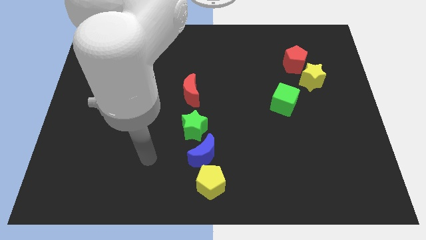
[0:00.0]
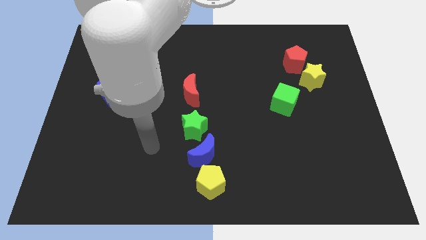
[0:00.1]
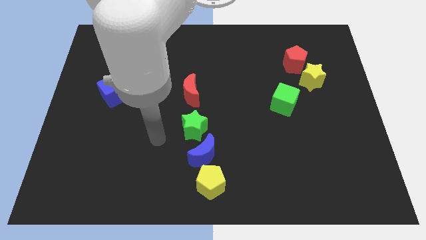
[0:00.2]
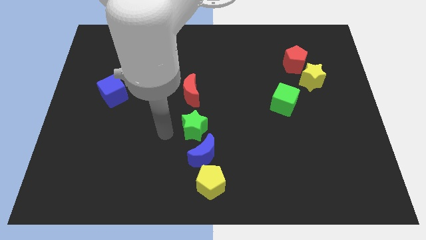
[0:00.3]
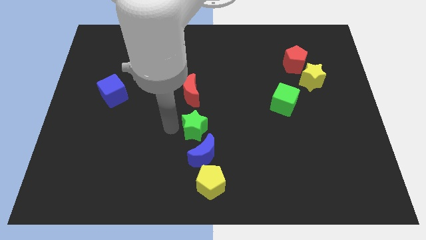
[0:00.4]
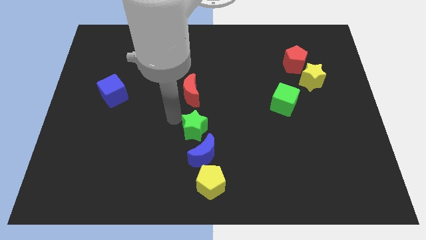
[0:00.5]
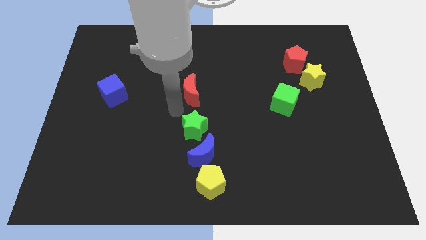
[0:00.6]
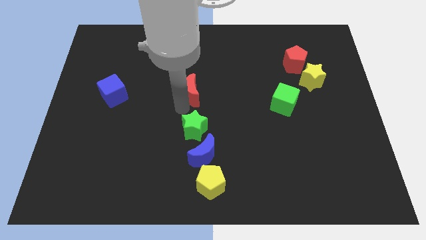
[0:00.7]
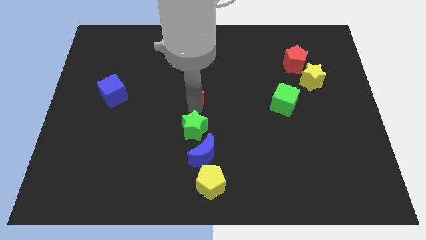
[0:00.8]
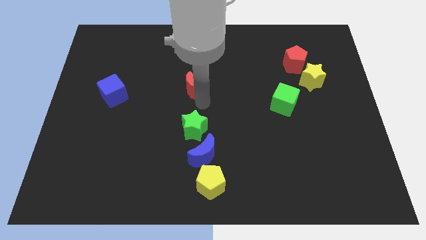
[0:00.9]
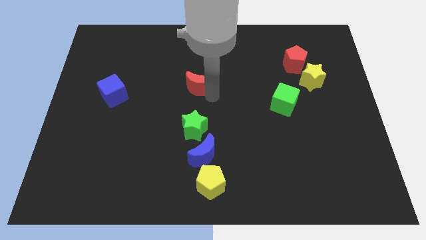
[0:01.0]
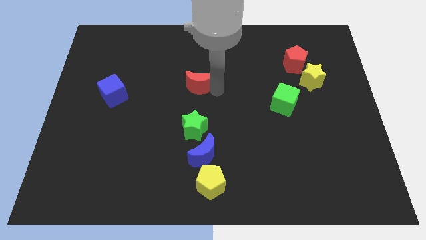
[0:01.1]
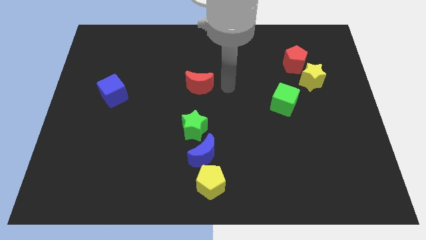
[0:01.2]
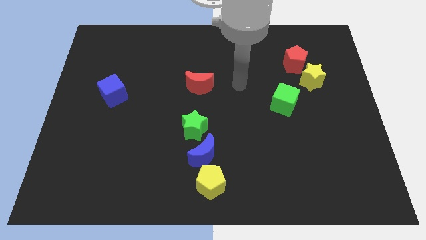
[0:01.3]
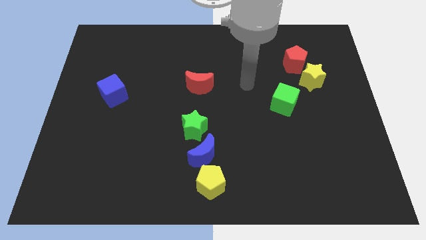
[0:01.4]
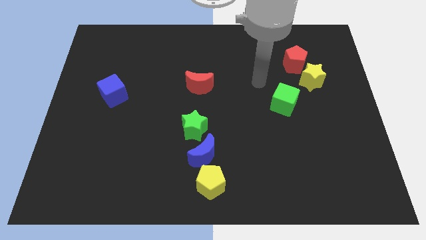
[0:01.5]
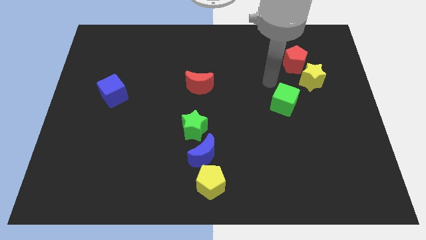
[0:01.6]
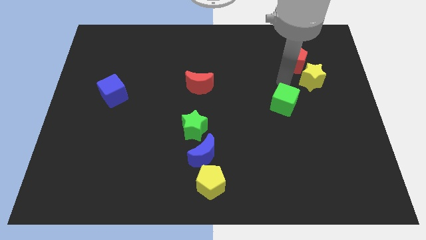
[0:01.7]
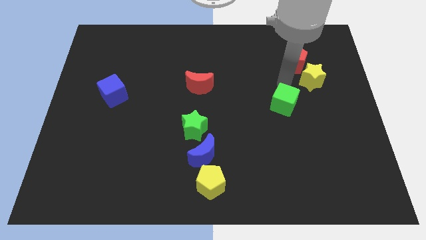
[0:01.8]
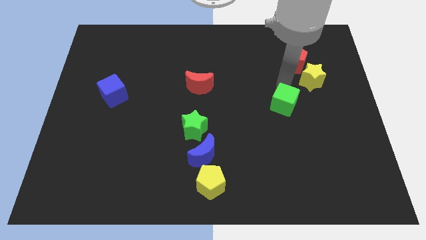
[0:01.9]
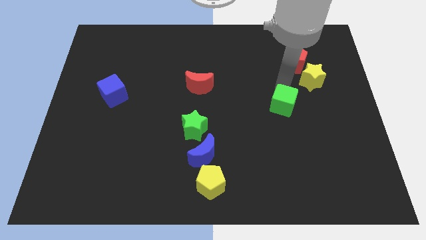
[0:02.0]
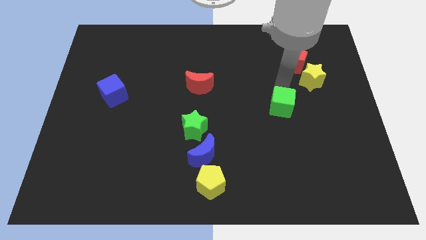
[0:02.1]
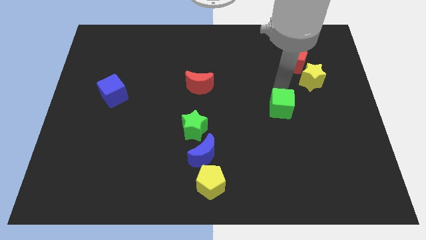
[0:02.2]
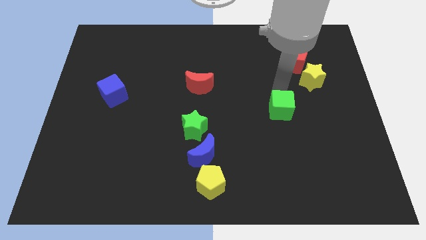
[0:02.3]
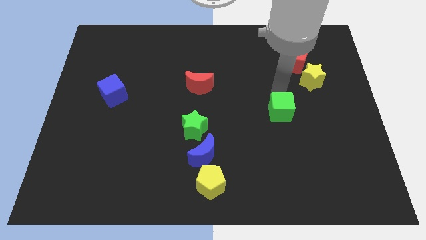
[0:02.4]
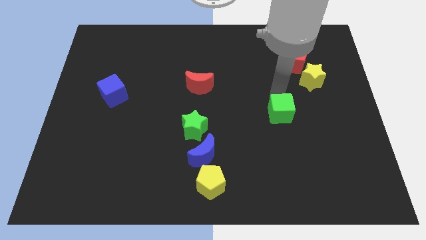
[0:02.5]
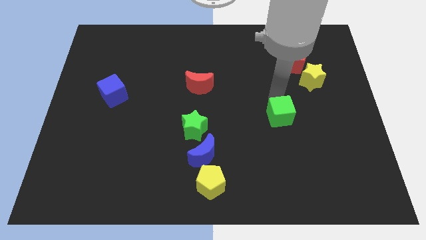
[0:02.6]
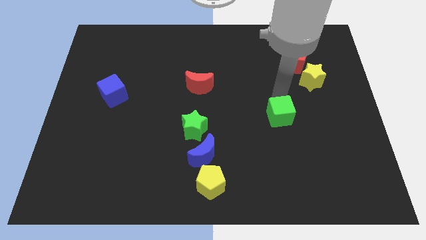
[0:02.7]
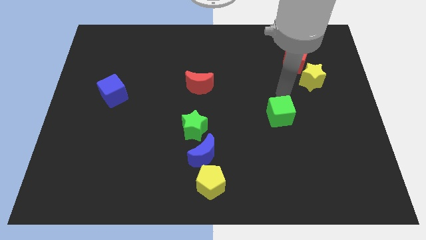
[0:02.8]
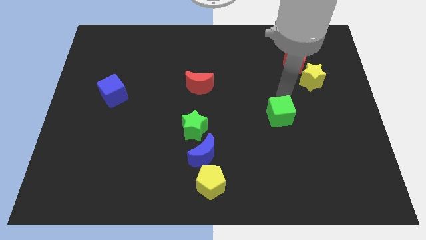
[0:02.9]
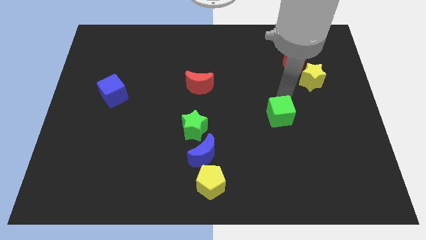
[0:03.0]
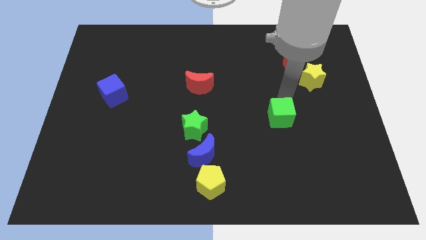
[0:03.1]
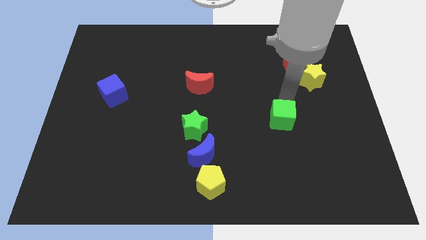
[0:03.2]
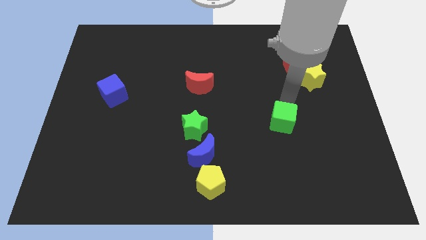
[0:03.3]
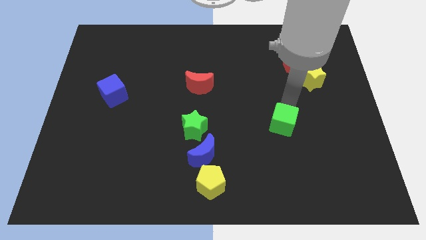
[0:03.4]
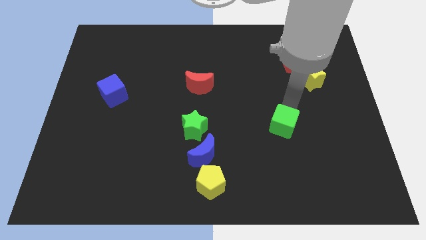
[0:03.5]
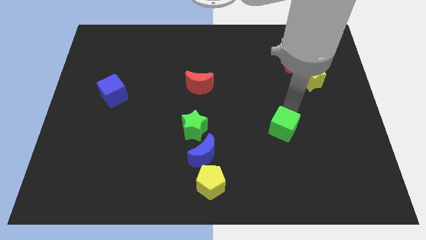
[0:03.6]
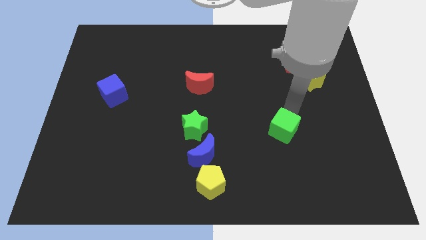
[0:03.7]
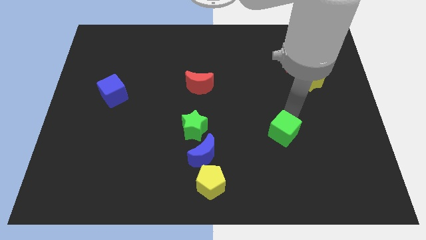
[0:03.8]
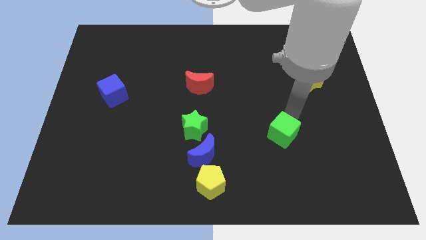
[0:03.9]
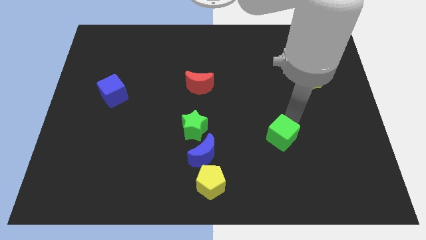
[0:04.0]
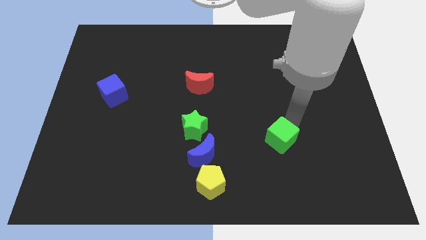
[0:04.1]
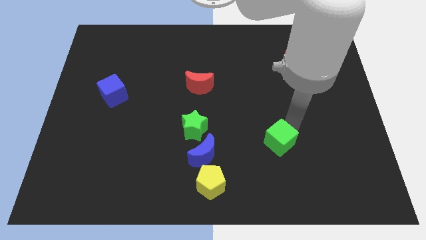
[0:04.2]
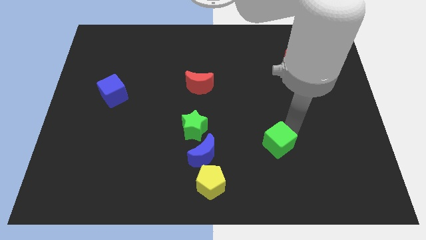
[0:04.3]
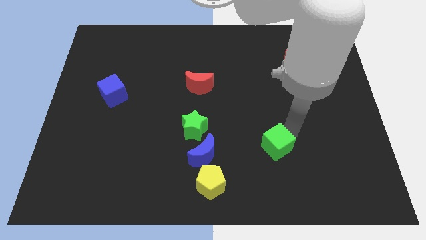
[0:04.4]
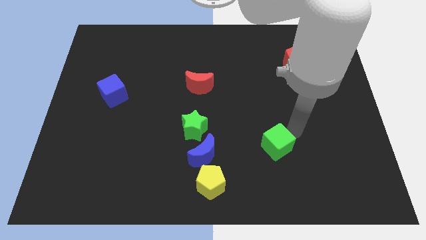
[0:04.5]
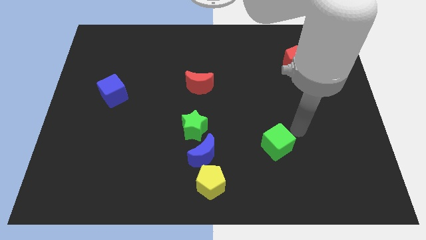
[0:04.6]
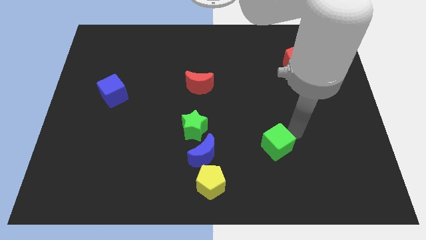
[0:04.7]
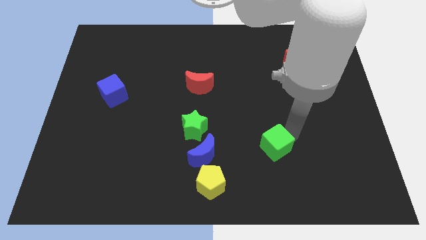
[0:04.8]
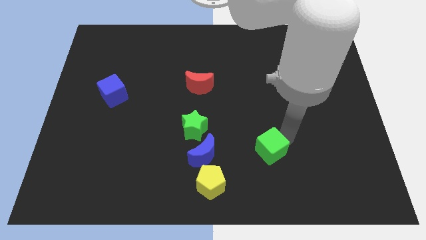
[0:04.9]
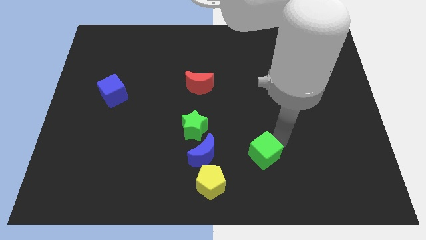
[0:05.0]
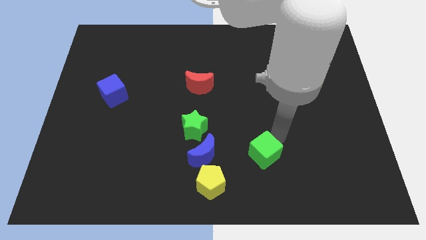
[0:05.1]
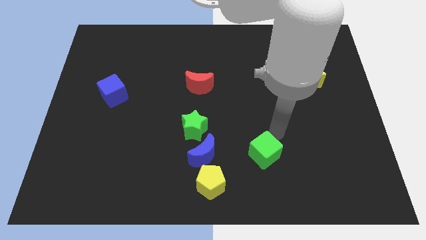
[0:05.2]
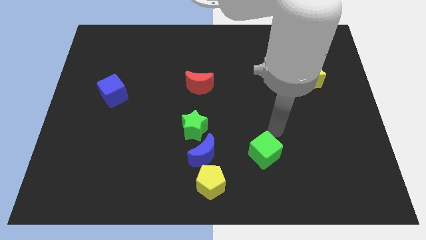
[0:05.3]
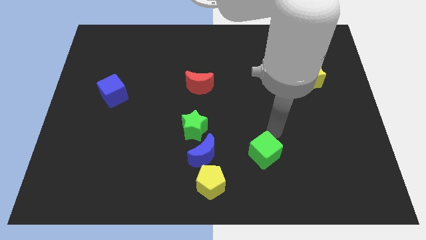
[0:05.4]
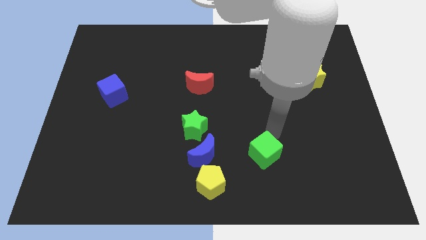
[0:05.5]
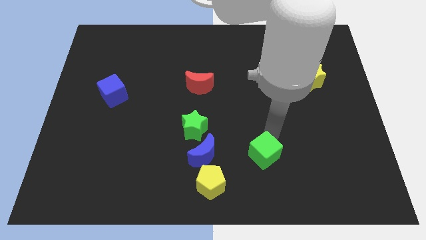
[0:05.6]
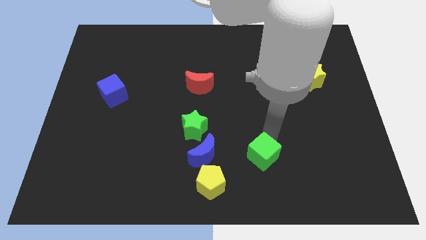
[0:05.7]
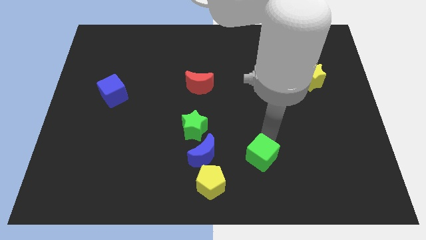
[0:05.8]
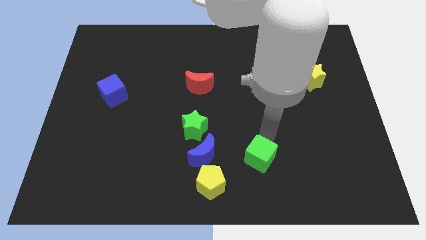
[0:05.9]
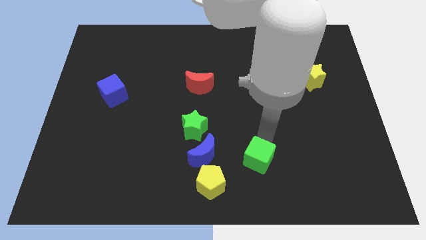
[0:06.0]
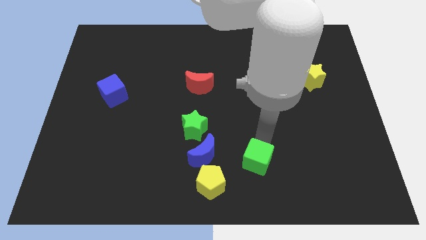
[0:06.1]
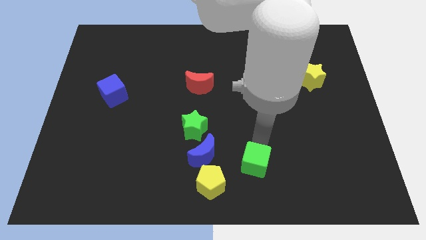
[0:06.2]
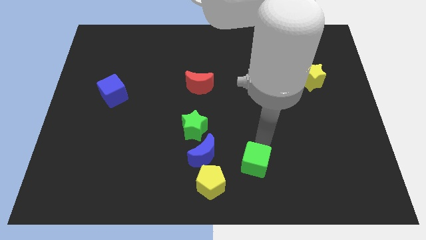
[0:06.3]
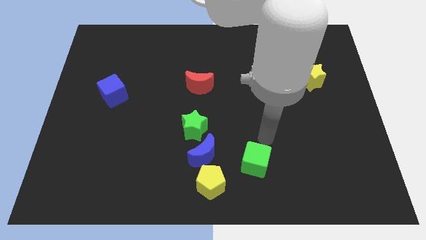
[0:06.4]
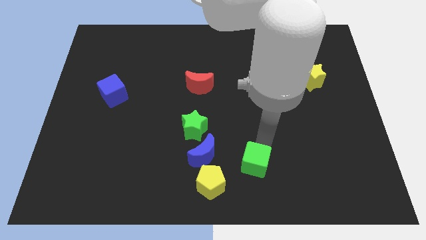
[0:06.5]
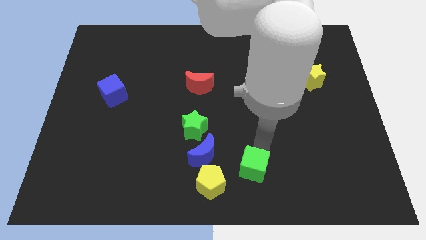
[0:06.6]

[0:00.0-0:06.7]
slide the green cube to the bottom
